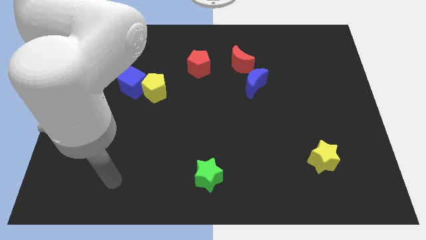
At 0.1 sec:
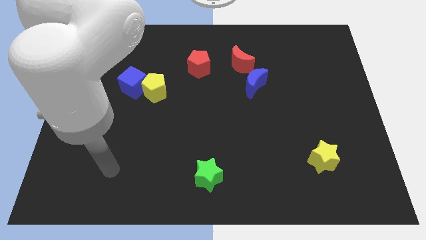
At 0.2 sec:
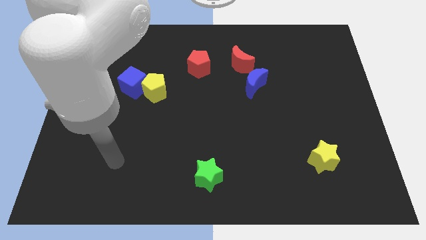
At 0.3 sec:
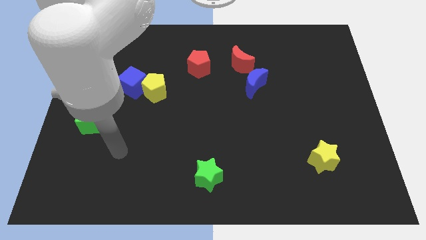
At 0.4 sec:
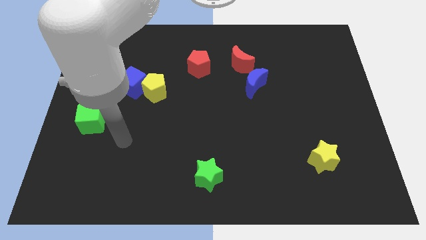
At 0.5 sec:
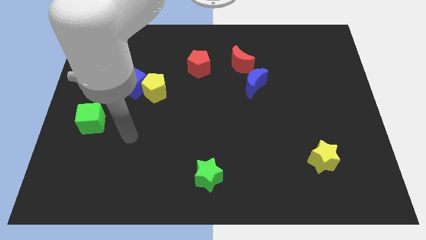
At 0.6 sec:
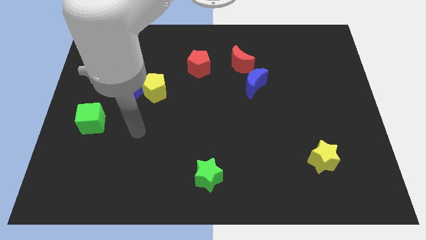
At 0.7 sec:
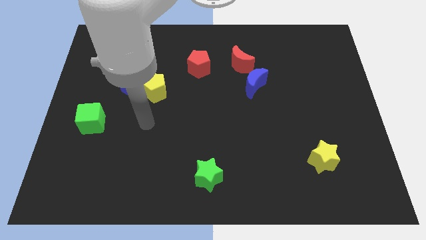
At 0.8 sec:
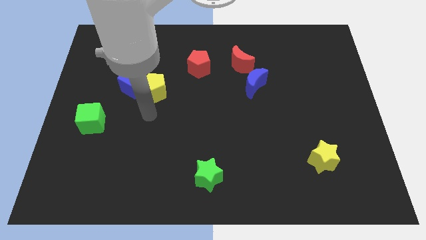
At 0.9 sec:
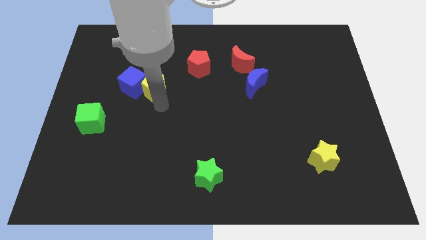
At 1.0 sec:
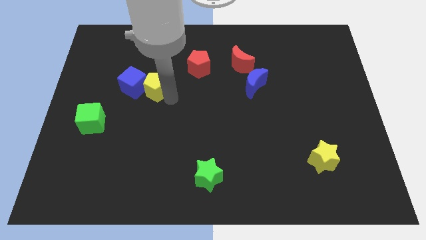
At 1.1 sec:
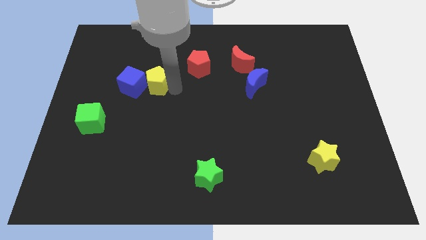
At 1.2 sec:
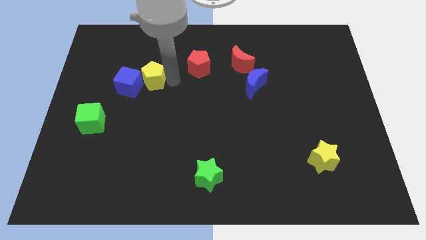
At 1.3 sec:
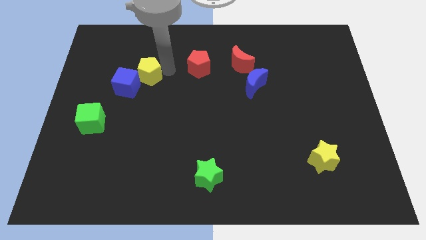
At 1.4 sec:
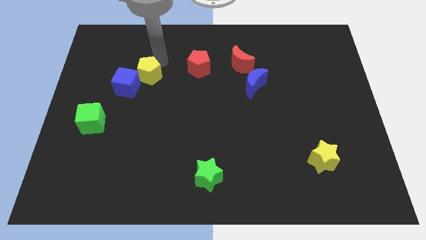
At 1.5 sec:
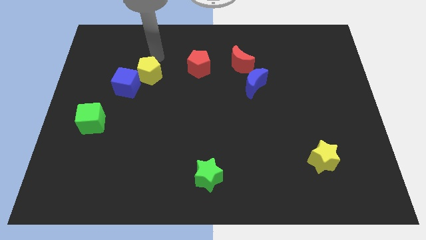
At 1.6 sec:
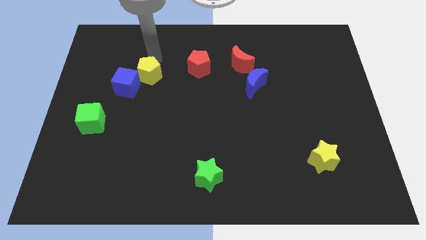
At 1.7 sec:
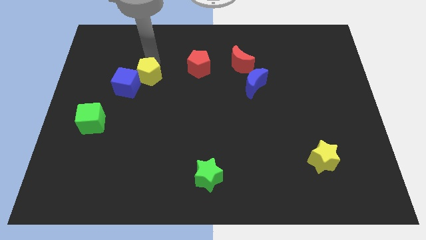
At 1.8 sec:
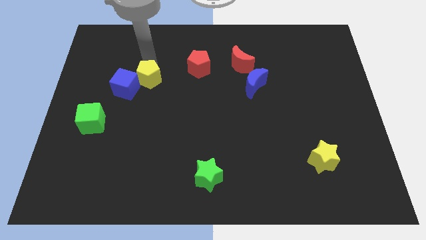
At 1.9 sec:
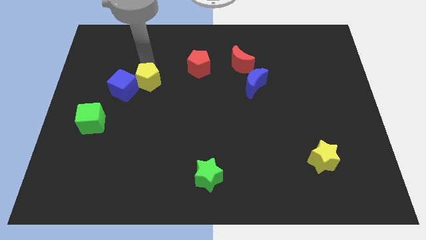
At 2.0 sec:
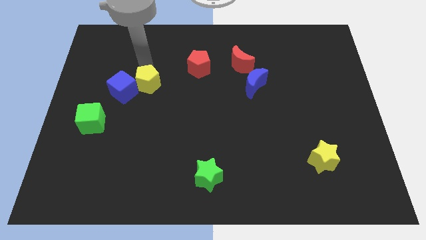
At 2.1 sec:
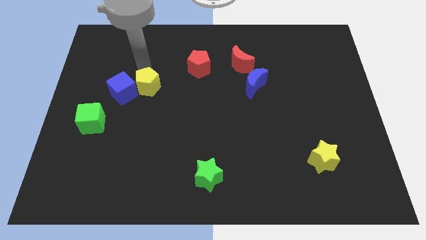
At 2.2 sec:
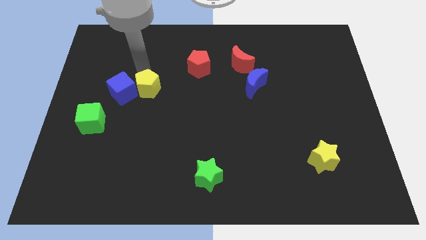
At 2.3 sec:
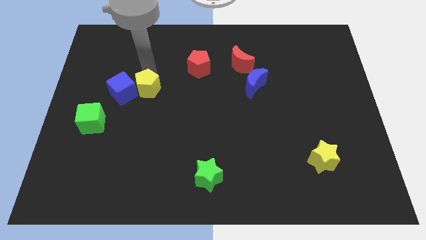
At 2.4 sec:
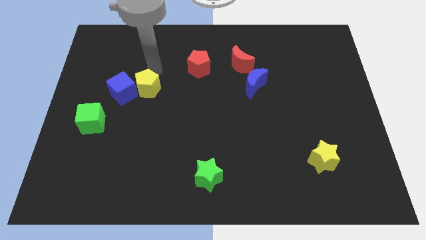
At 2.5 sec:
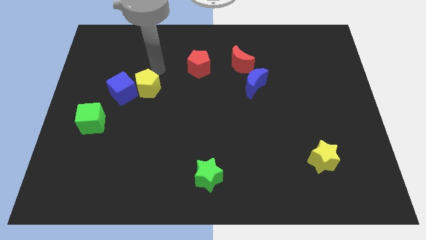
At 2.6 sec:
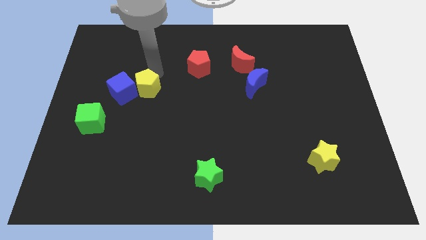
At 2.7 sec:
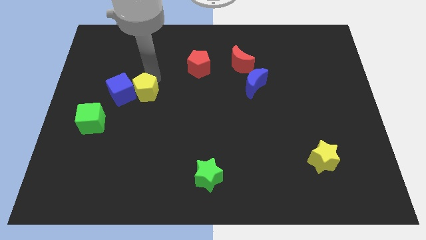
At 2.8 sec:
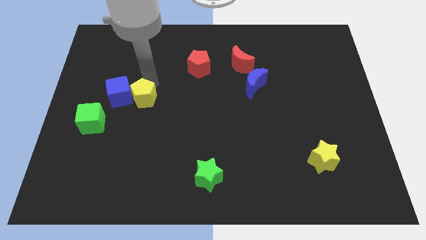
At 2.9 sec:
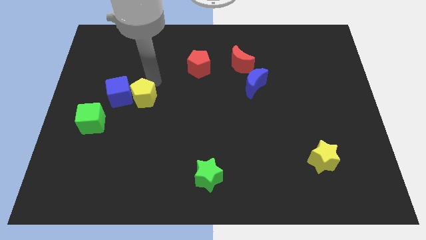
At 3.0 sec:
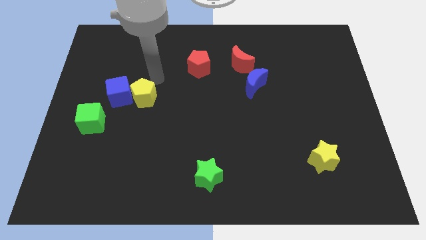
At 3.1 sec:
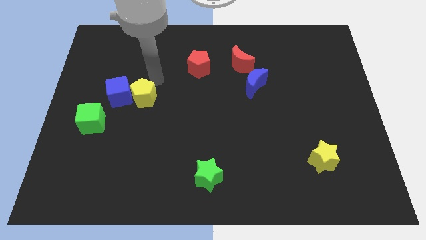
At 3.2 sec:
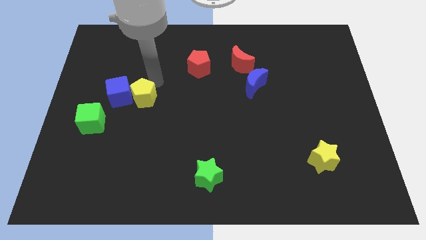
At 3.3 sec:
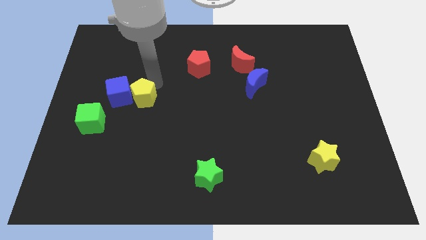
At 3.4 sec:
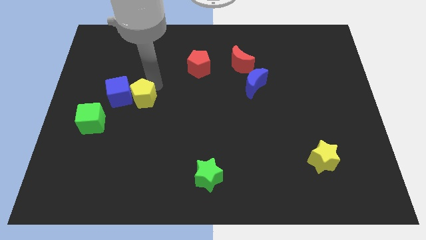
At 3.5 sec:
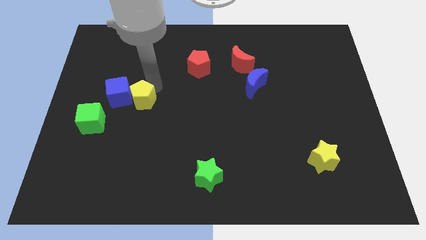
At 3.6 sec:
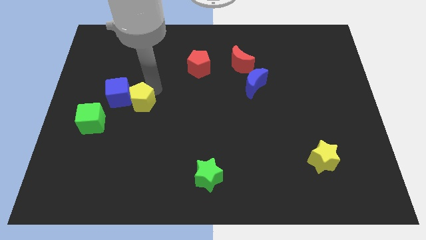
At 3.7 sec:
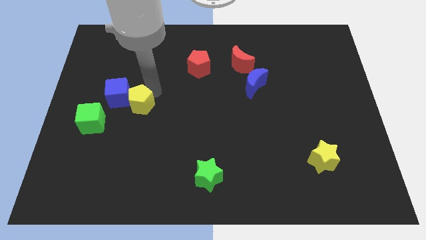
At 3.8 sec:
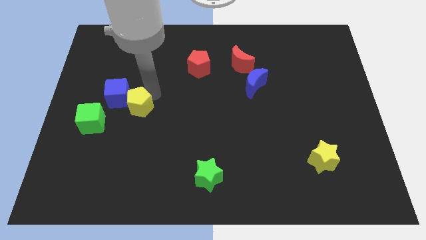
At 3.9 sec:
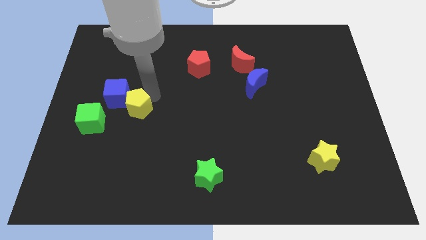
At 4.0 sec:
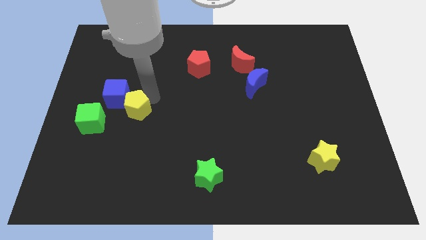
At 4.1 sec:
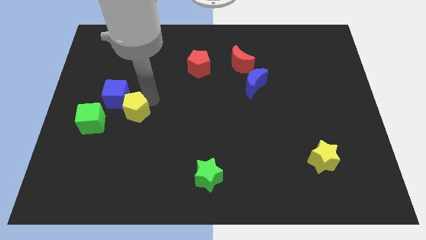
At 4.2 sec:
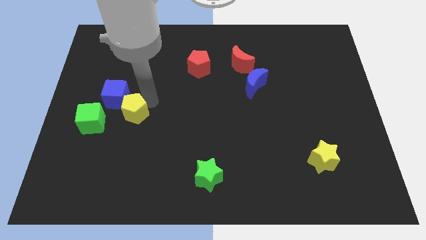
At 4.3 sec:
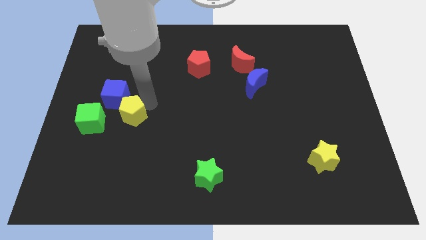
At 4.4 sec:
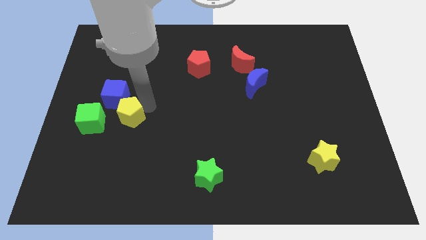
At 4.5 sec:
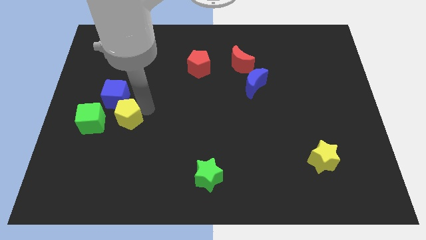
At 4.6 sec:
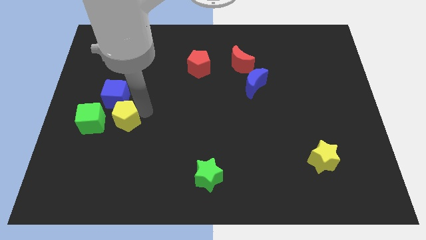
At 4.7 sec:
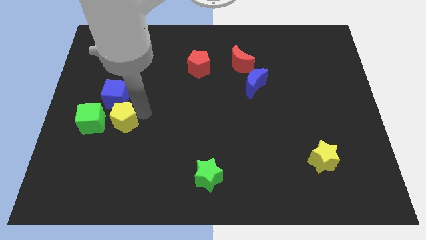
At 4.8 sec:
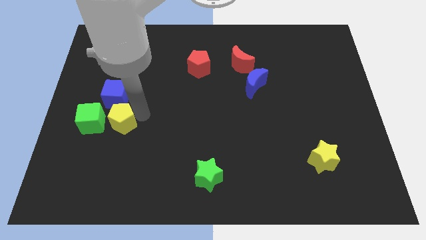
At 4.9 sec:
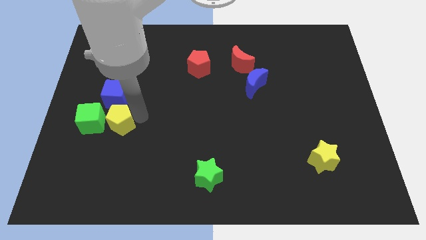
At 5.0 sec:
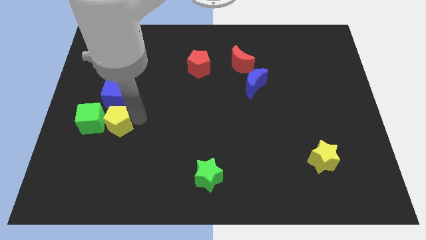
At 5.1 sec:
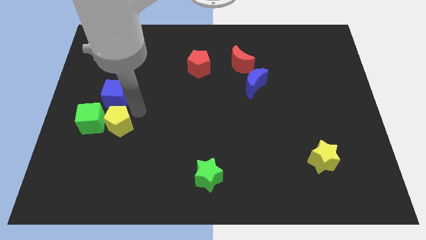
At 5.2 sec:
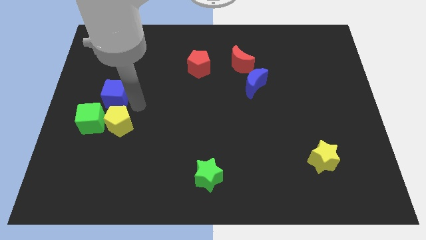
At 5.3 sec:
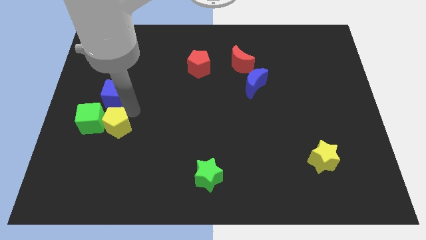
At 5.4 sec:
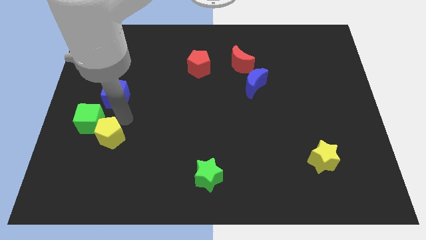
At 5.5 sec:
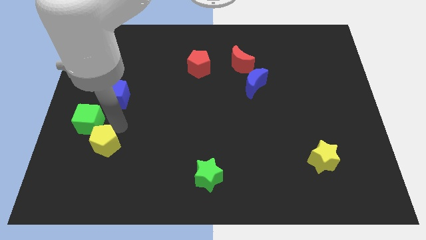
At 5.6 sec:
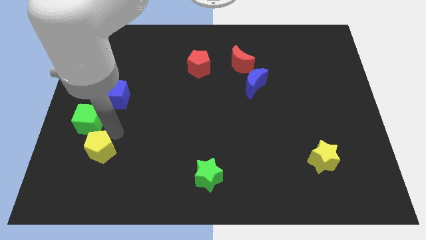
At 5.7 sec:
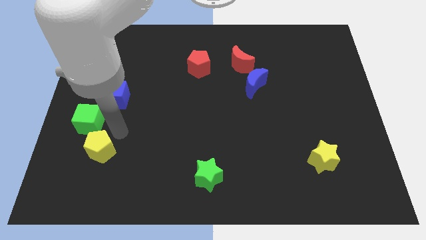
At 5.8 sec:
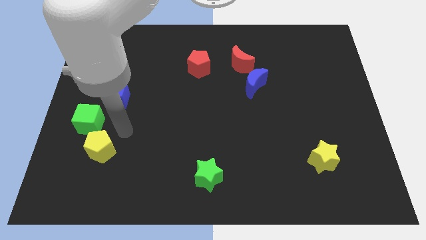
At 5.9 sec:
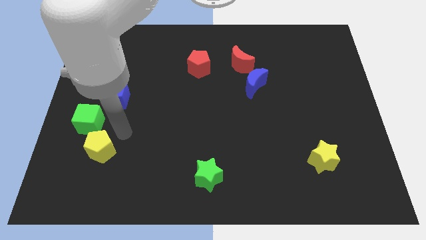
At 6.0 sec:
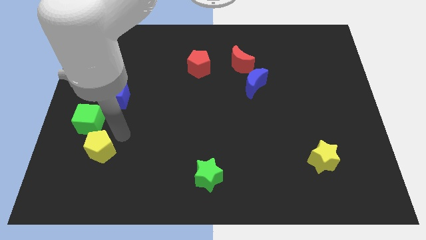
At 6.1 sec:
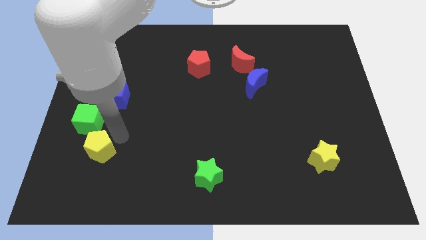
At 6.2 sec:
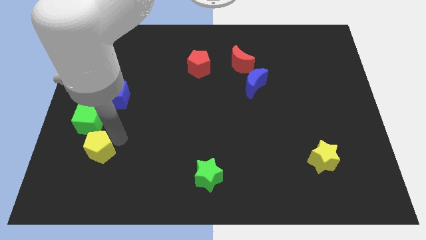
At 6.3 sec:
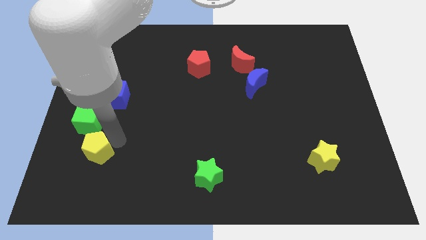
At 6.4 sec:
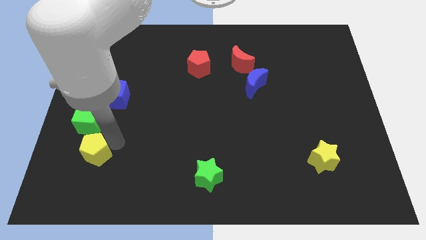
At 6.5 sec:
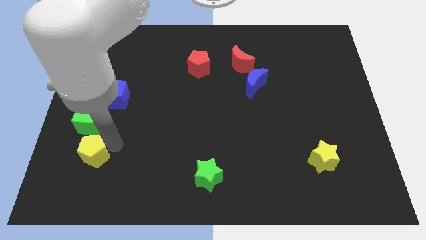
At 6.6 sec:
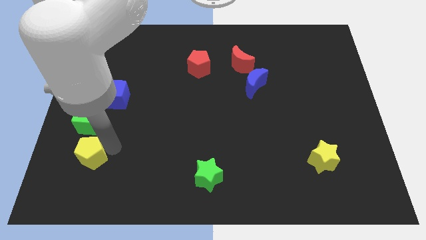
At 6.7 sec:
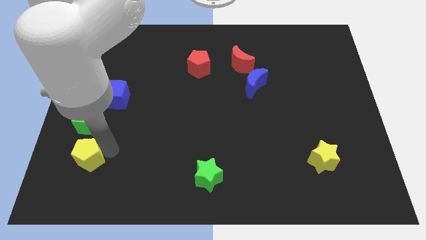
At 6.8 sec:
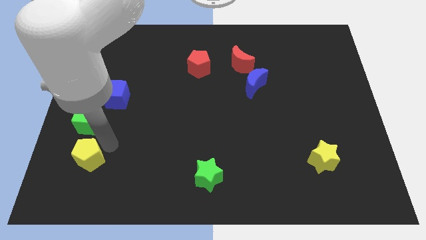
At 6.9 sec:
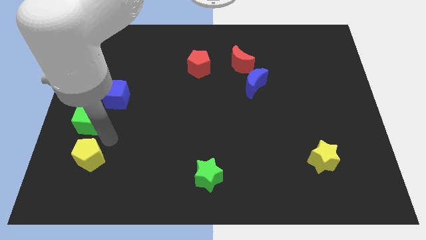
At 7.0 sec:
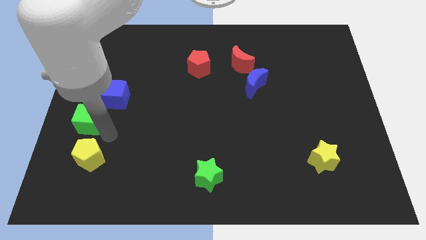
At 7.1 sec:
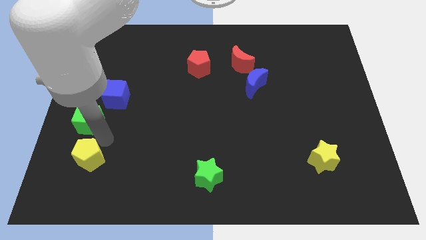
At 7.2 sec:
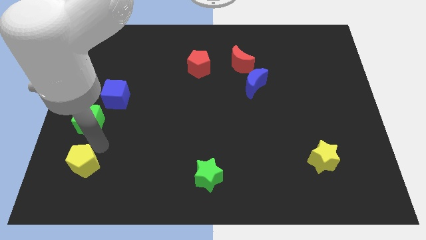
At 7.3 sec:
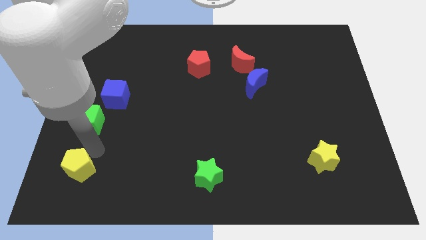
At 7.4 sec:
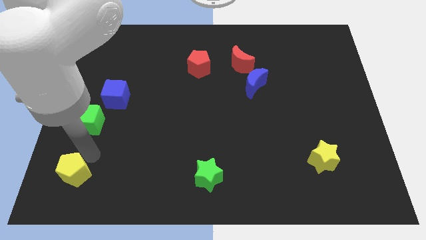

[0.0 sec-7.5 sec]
put the yellow pentagon to the bottom left
